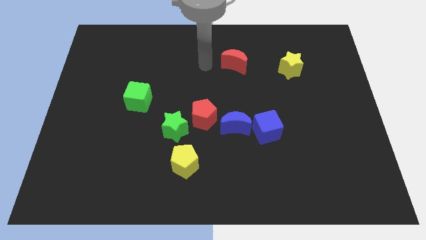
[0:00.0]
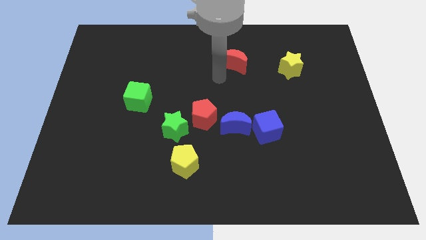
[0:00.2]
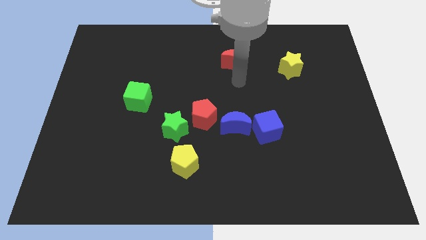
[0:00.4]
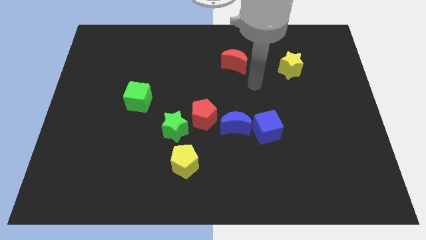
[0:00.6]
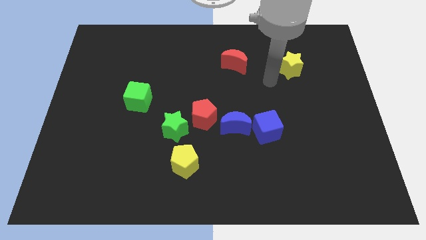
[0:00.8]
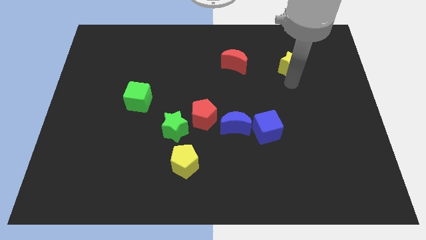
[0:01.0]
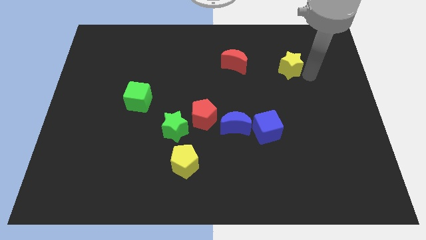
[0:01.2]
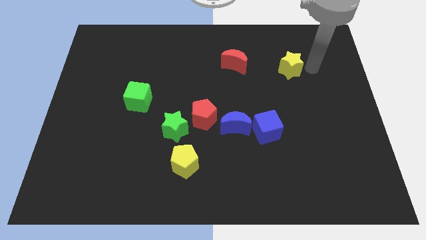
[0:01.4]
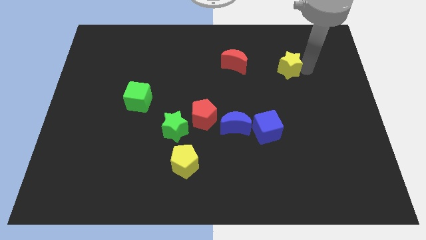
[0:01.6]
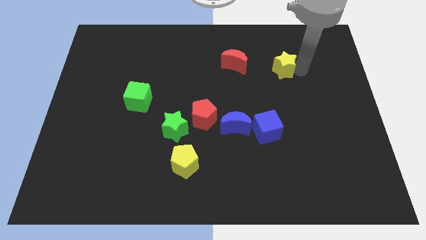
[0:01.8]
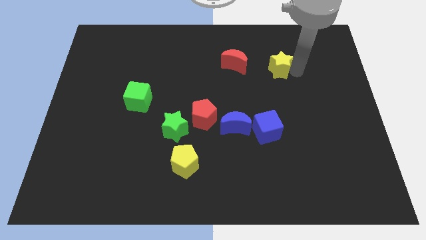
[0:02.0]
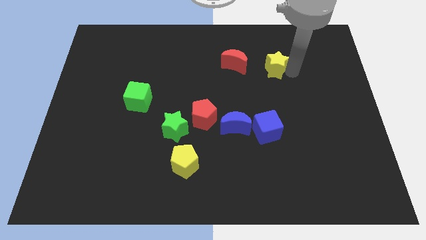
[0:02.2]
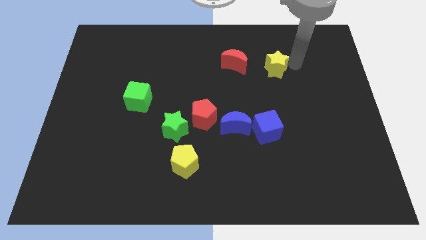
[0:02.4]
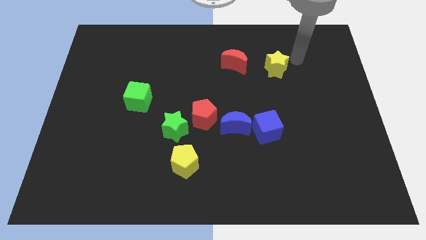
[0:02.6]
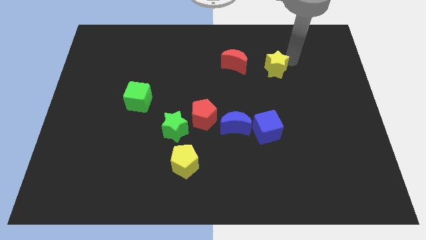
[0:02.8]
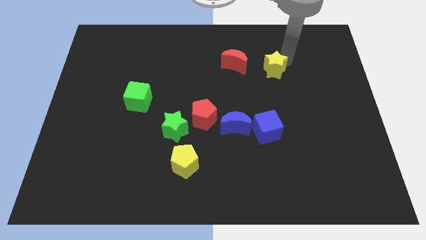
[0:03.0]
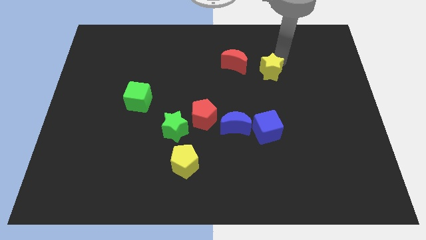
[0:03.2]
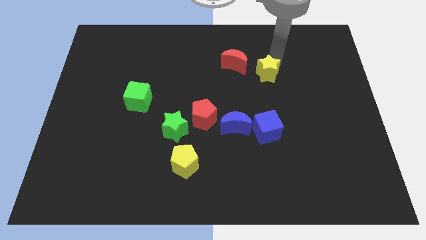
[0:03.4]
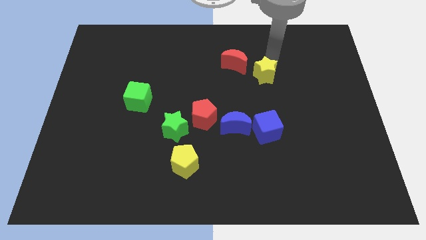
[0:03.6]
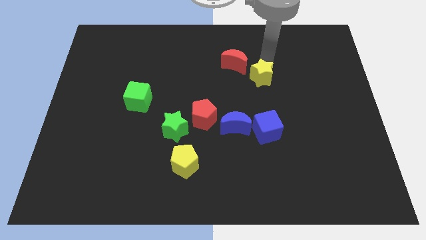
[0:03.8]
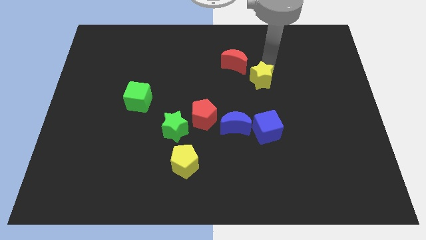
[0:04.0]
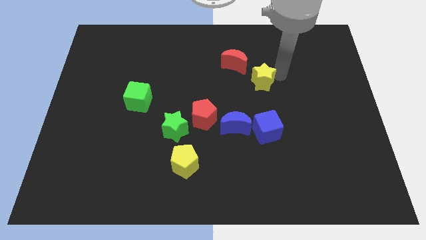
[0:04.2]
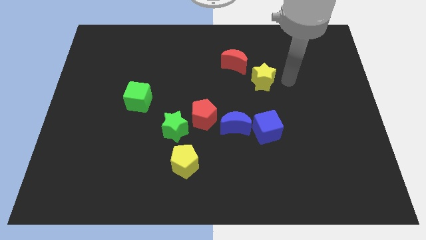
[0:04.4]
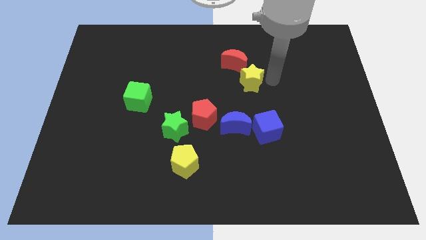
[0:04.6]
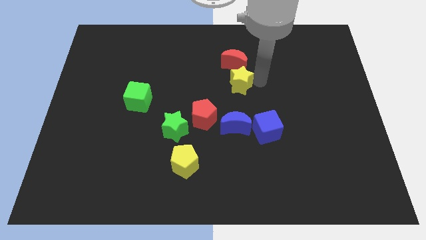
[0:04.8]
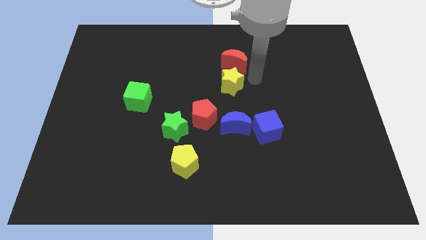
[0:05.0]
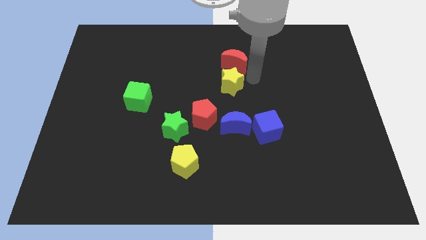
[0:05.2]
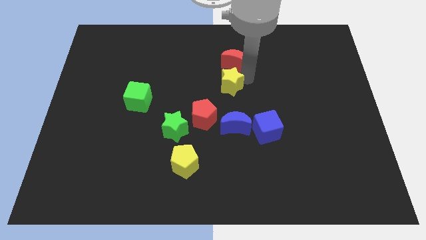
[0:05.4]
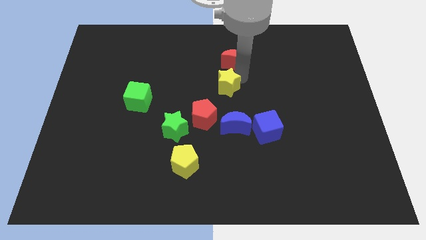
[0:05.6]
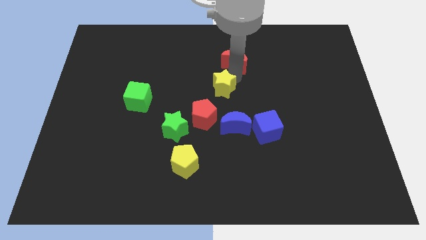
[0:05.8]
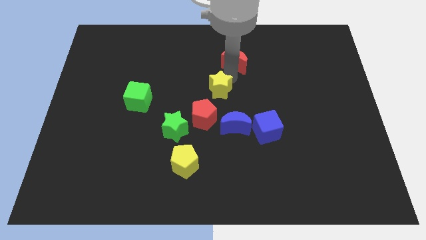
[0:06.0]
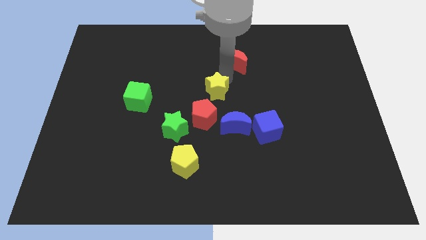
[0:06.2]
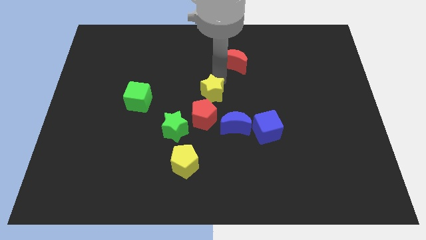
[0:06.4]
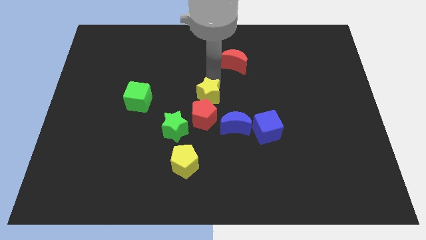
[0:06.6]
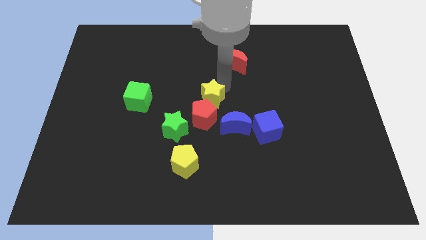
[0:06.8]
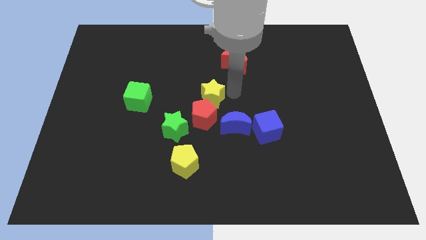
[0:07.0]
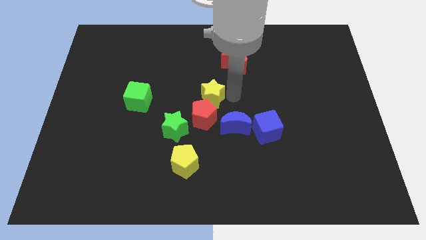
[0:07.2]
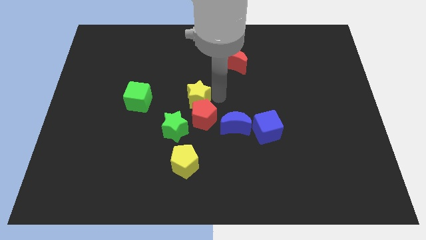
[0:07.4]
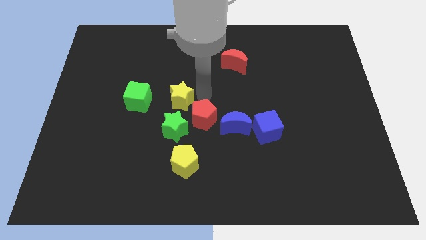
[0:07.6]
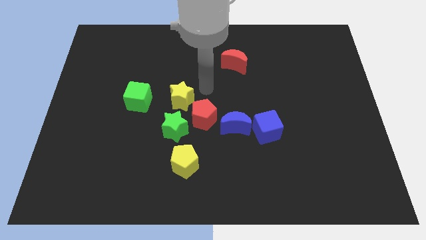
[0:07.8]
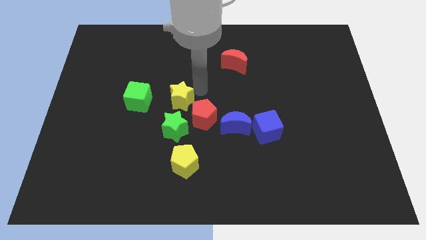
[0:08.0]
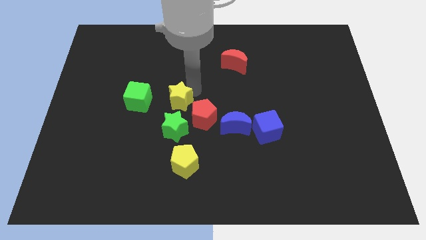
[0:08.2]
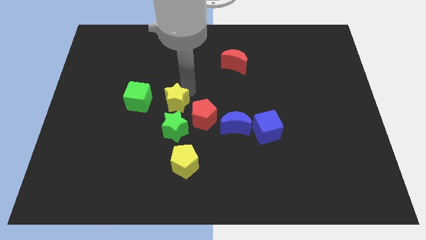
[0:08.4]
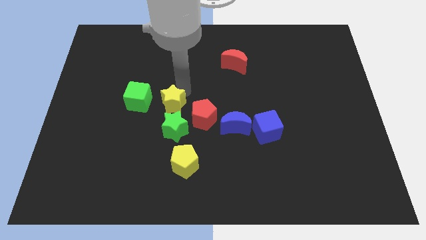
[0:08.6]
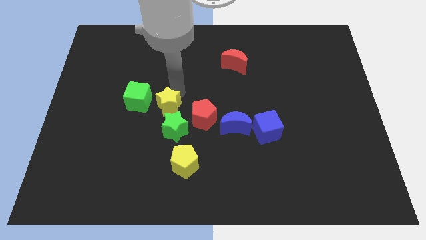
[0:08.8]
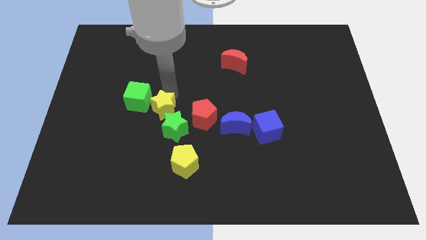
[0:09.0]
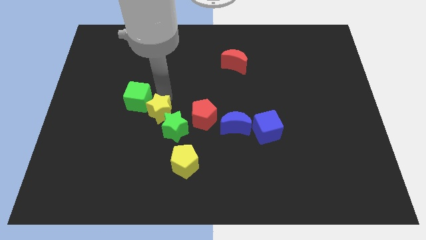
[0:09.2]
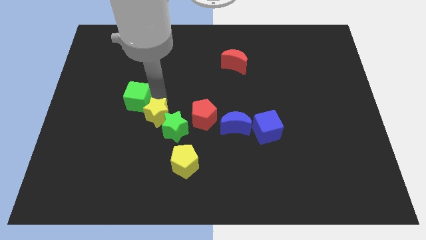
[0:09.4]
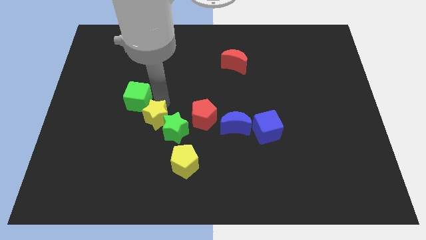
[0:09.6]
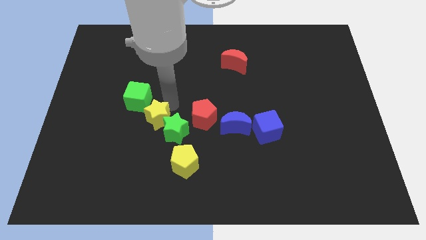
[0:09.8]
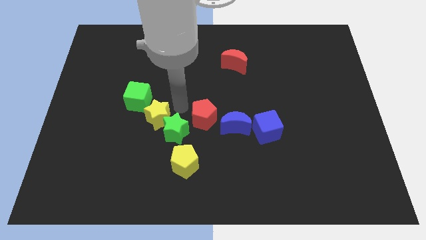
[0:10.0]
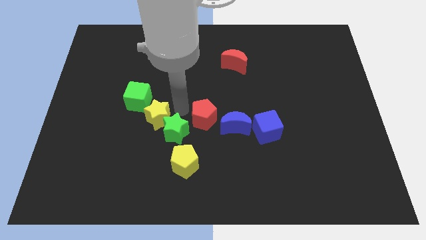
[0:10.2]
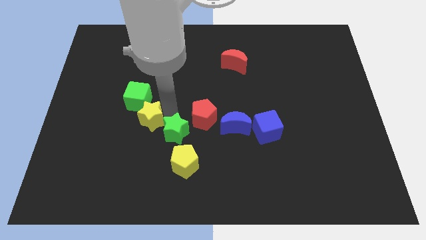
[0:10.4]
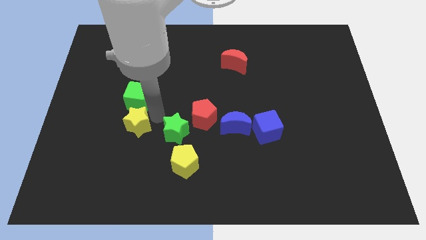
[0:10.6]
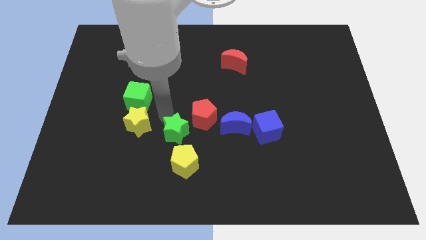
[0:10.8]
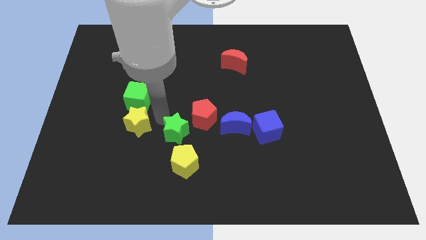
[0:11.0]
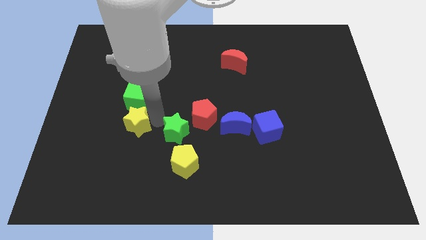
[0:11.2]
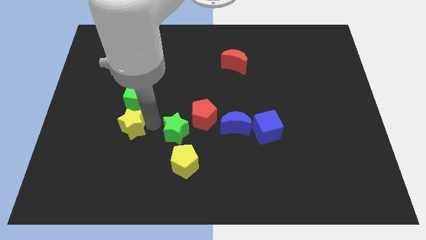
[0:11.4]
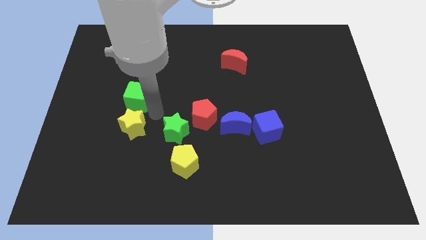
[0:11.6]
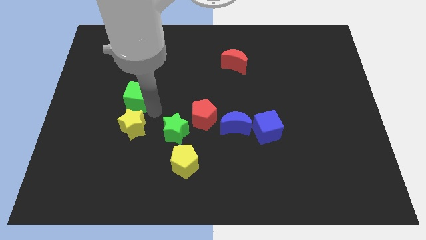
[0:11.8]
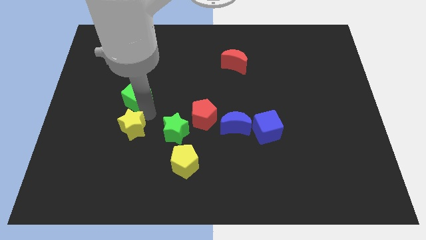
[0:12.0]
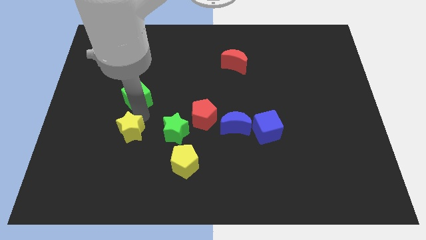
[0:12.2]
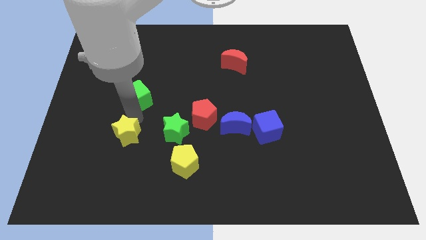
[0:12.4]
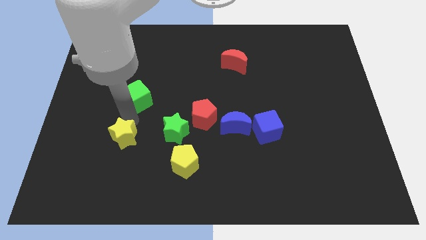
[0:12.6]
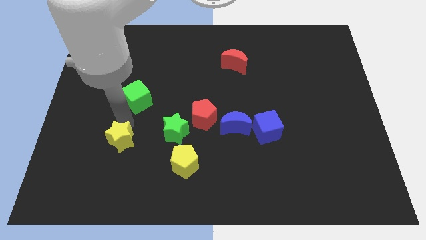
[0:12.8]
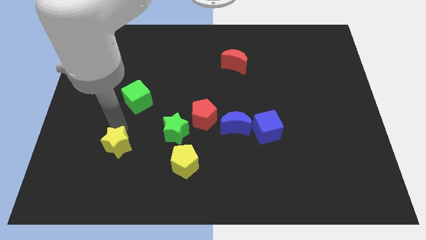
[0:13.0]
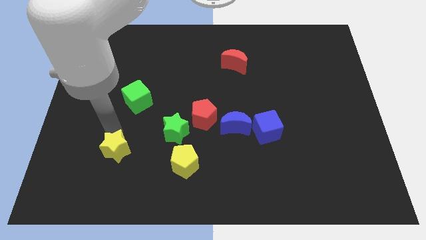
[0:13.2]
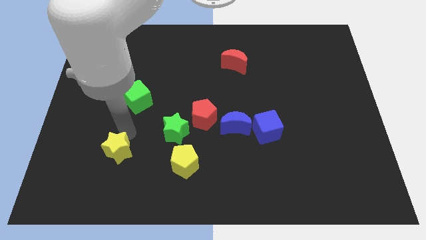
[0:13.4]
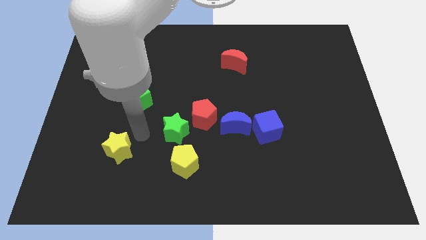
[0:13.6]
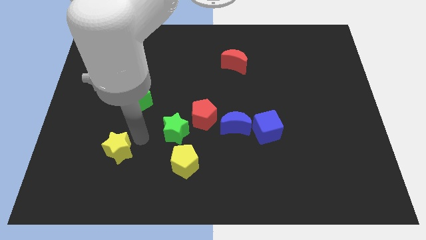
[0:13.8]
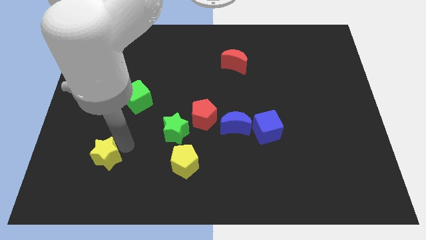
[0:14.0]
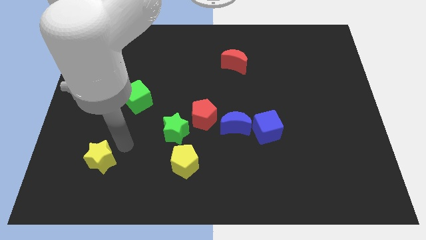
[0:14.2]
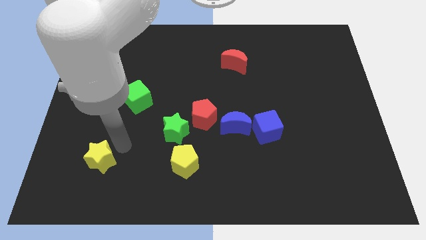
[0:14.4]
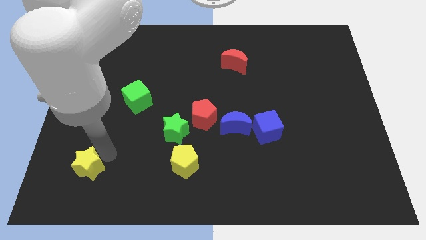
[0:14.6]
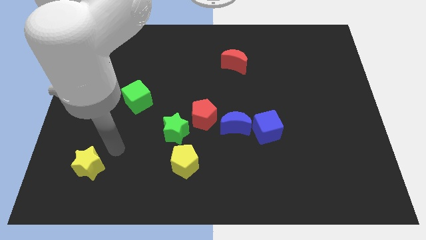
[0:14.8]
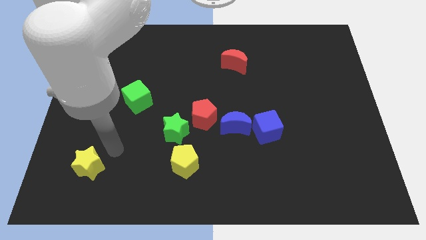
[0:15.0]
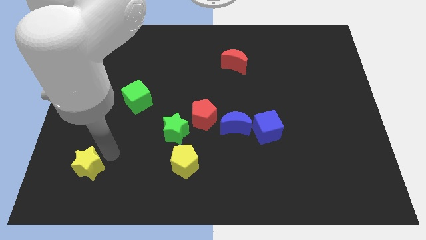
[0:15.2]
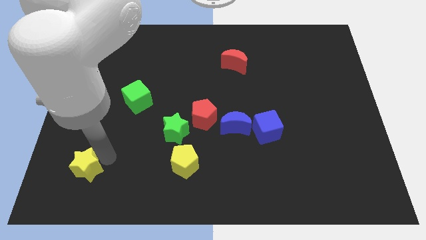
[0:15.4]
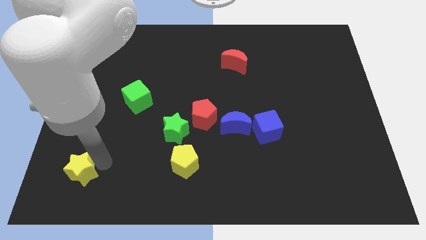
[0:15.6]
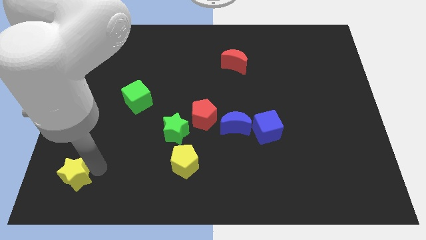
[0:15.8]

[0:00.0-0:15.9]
move the yellow star to the lower left corner
